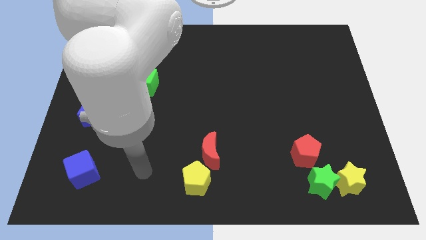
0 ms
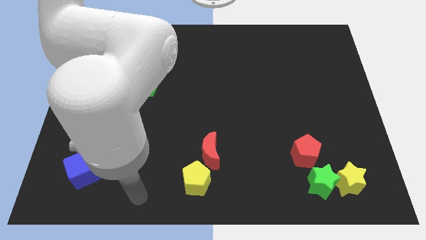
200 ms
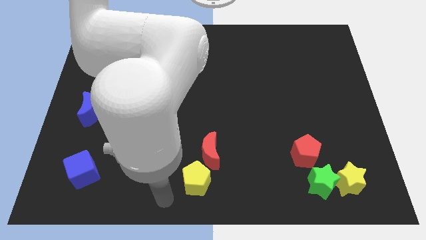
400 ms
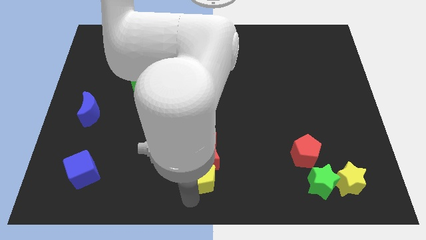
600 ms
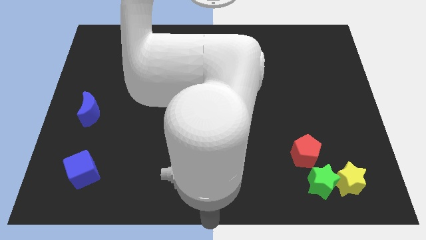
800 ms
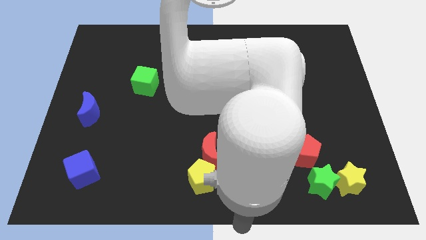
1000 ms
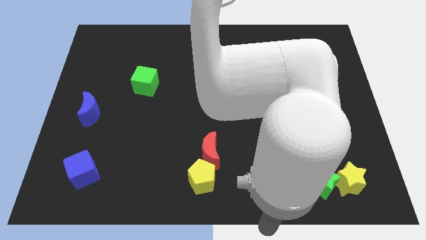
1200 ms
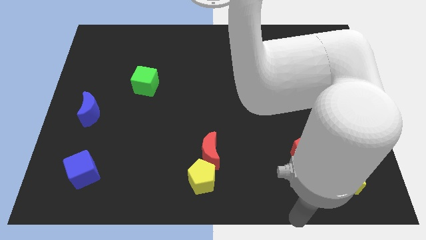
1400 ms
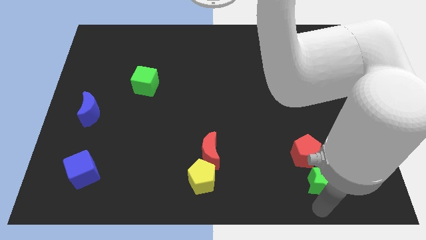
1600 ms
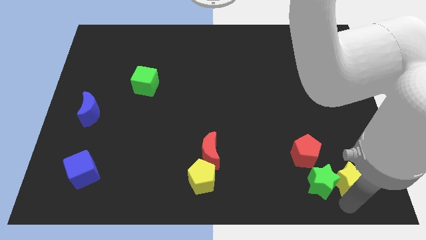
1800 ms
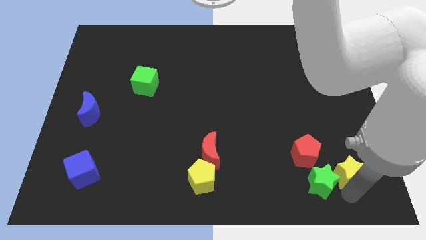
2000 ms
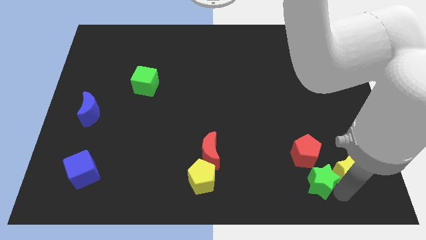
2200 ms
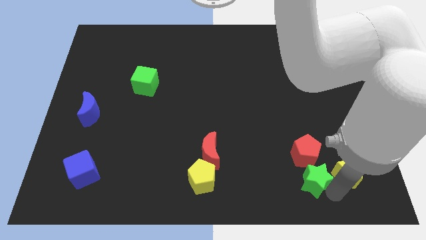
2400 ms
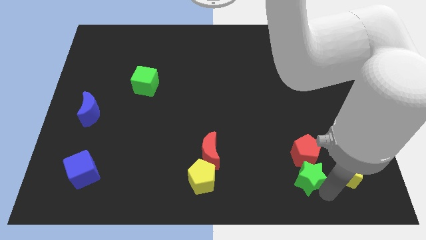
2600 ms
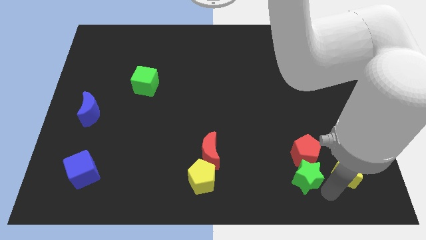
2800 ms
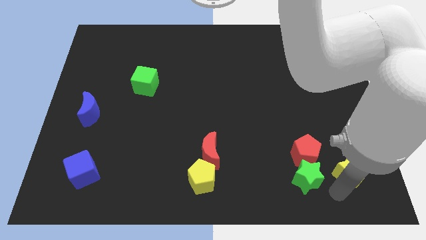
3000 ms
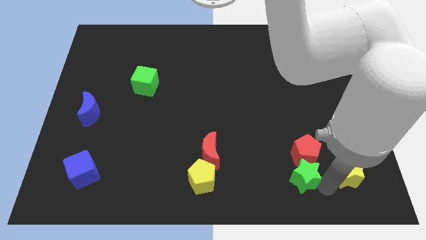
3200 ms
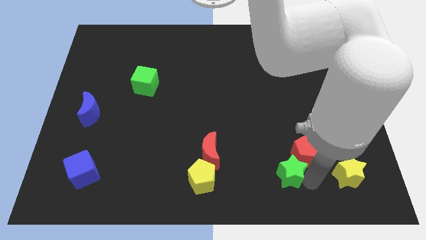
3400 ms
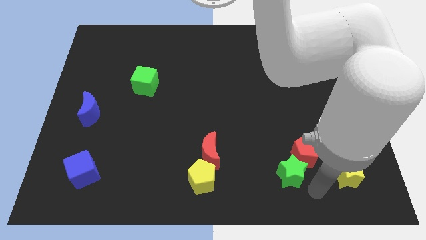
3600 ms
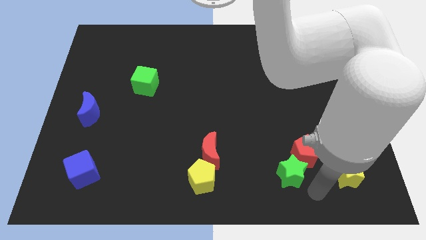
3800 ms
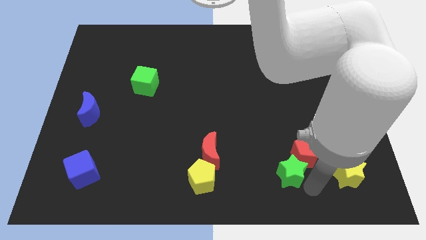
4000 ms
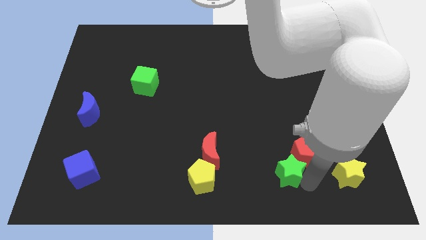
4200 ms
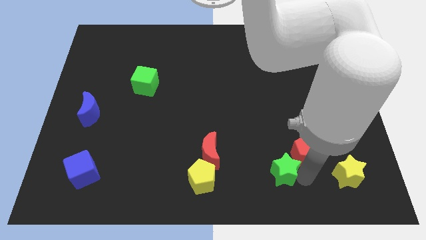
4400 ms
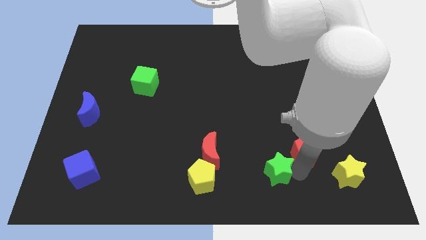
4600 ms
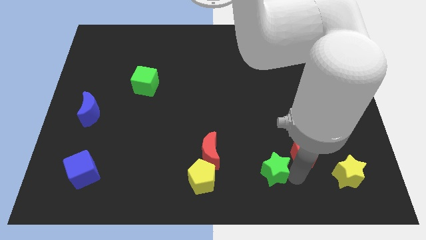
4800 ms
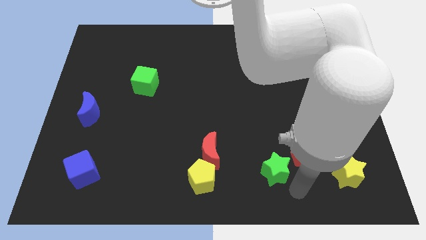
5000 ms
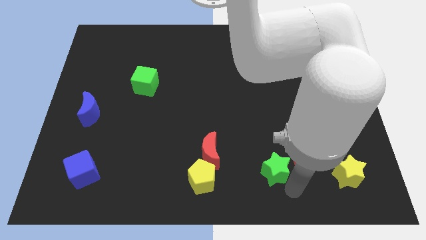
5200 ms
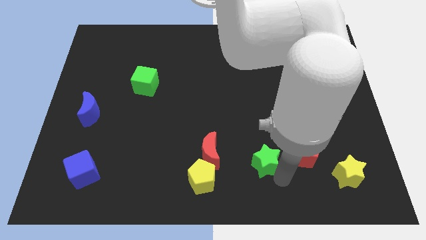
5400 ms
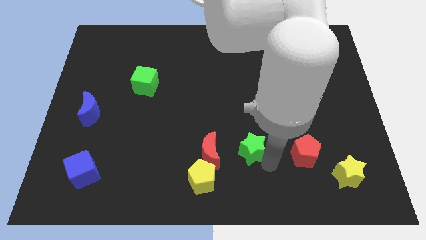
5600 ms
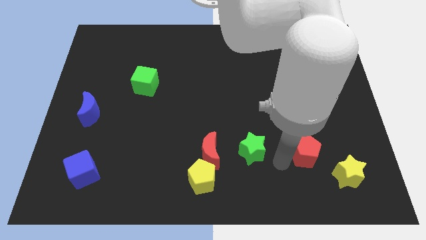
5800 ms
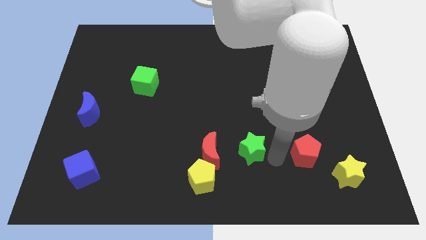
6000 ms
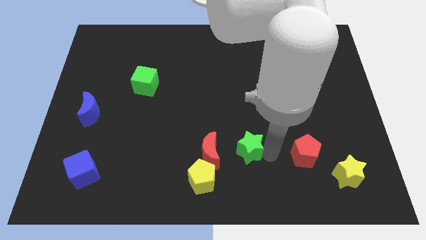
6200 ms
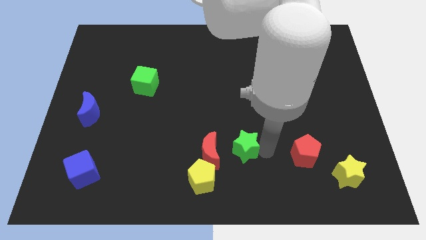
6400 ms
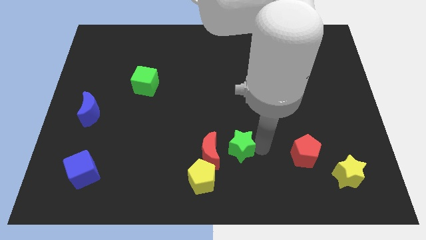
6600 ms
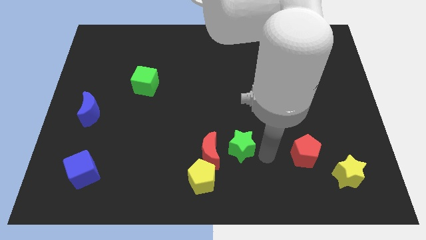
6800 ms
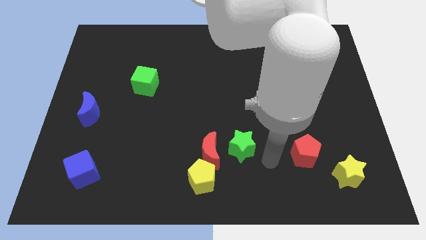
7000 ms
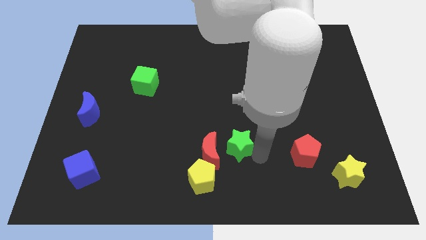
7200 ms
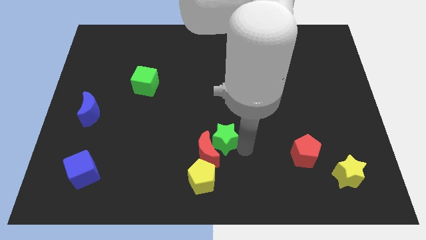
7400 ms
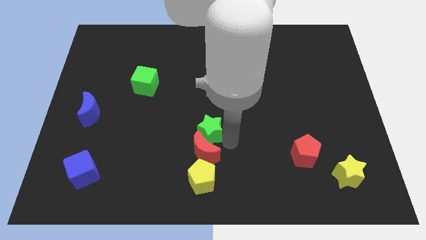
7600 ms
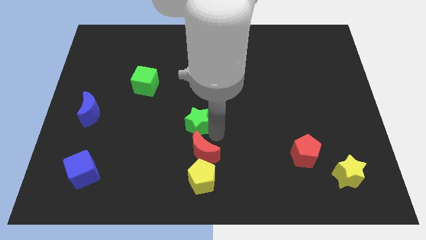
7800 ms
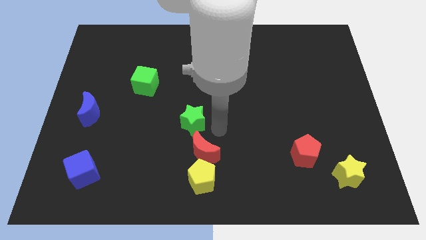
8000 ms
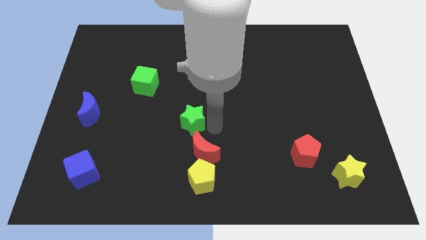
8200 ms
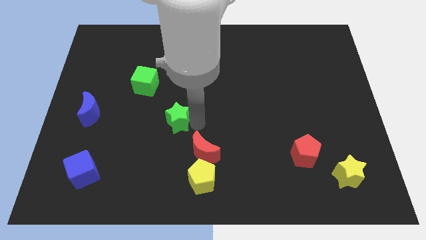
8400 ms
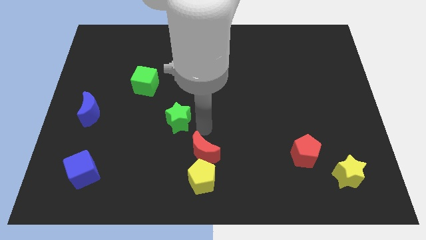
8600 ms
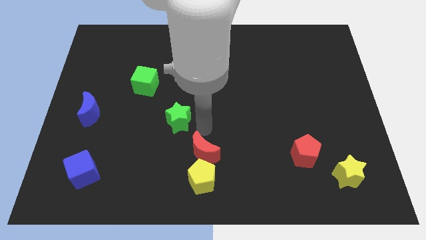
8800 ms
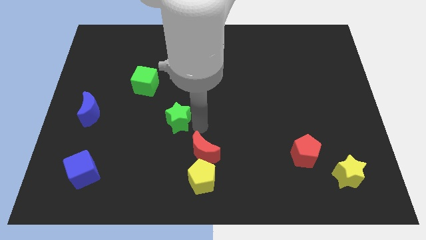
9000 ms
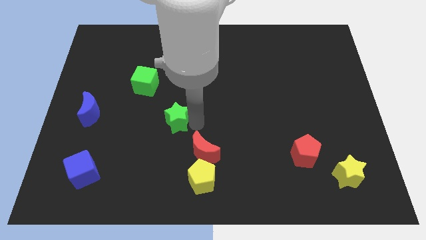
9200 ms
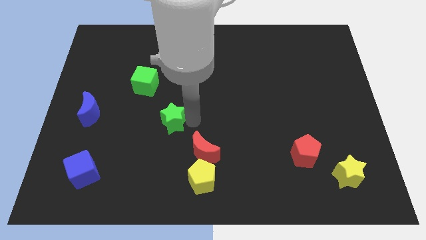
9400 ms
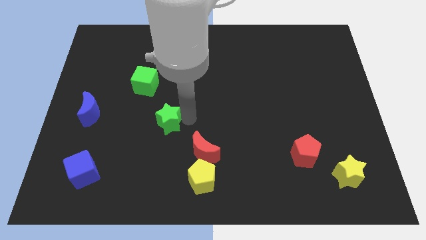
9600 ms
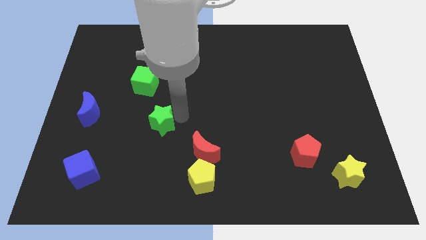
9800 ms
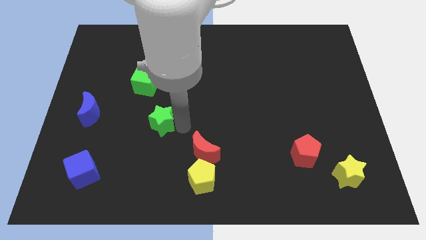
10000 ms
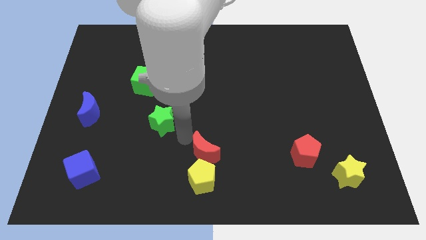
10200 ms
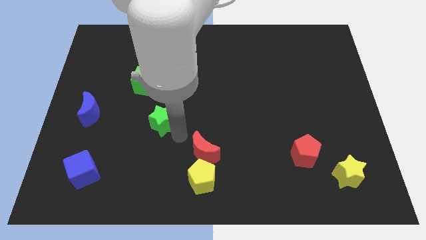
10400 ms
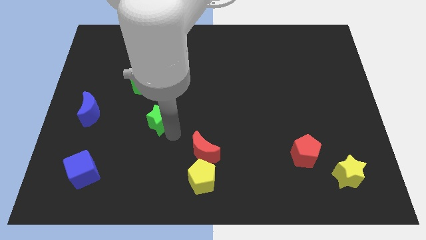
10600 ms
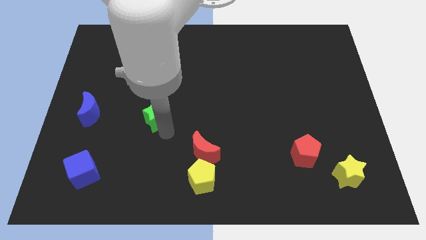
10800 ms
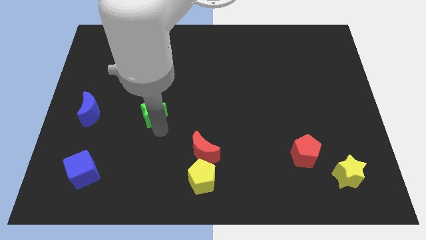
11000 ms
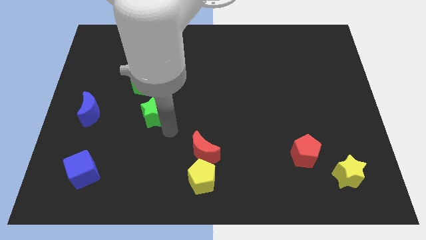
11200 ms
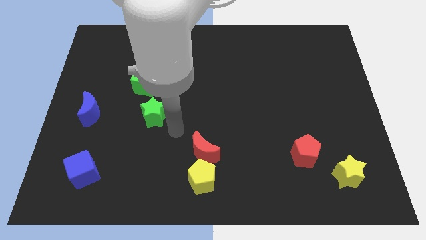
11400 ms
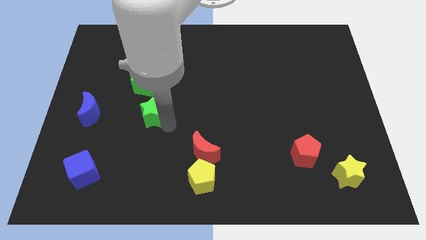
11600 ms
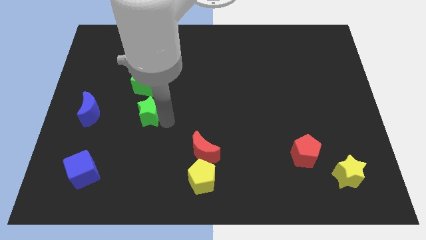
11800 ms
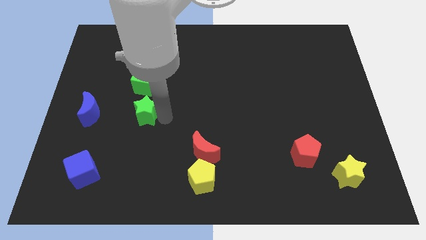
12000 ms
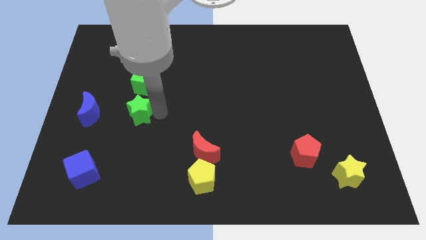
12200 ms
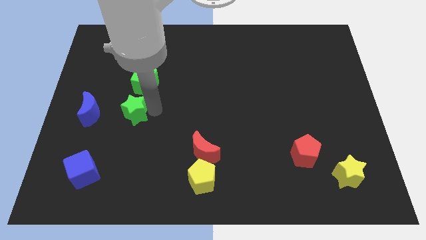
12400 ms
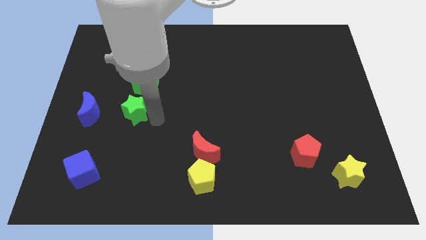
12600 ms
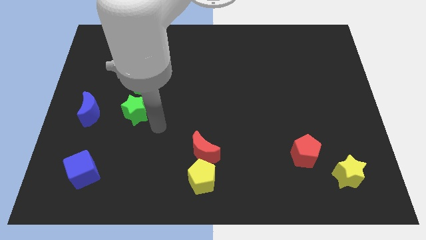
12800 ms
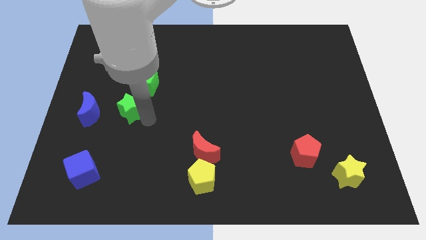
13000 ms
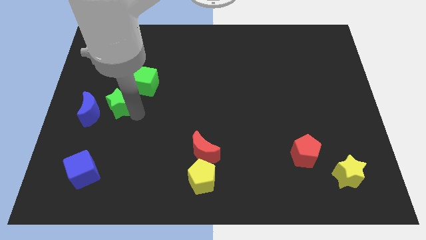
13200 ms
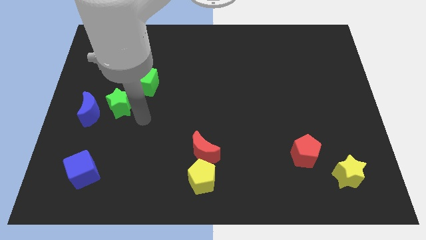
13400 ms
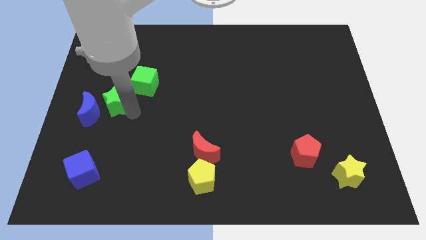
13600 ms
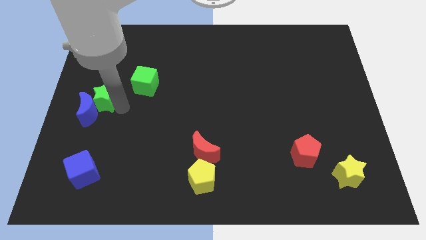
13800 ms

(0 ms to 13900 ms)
put the green star to the center left
